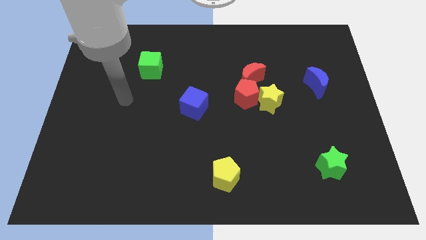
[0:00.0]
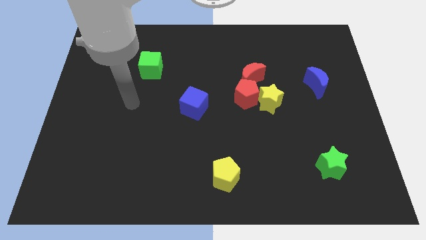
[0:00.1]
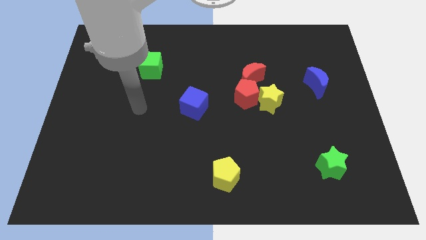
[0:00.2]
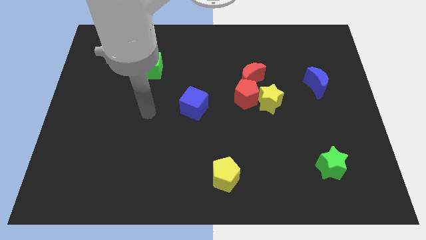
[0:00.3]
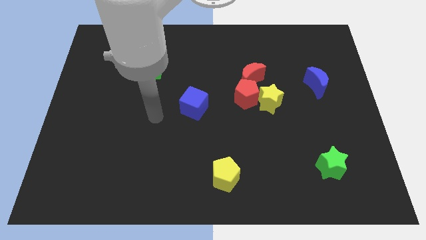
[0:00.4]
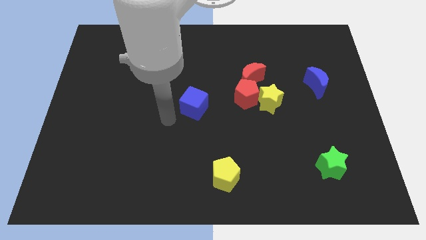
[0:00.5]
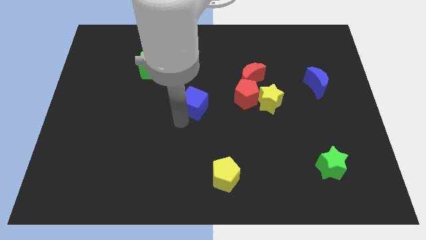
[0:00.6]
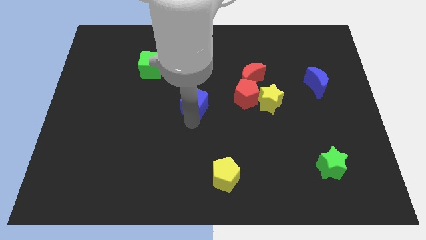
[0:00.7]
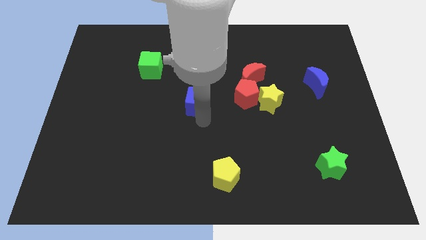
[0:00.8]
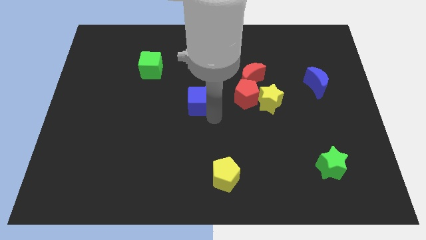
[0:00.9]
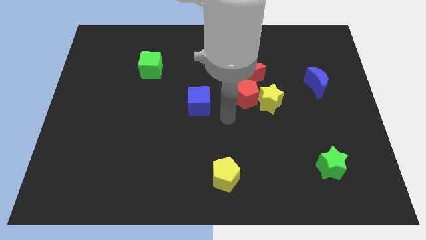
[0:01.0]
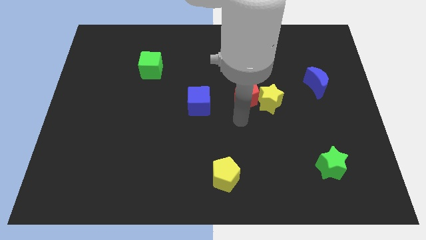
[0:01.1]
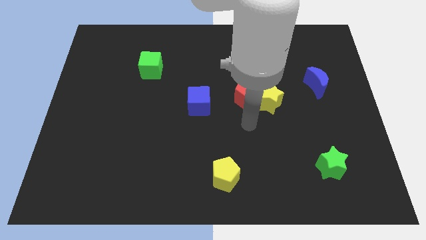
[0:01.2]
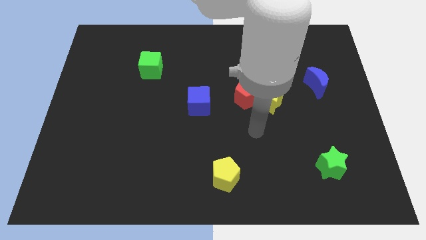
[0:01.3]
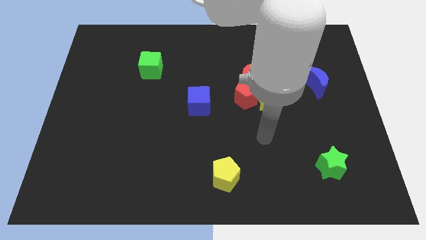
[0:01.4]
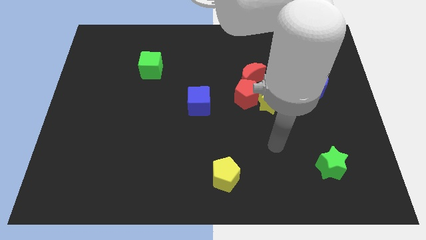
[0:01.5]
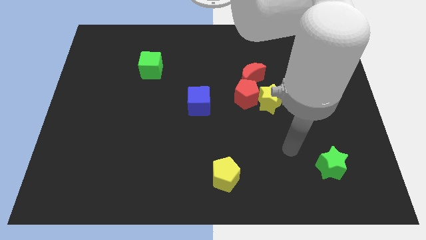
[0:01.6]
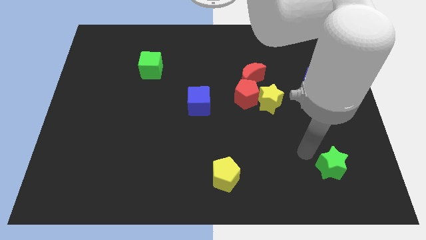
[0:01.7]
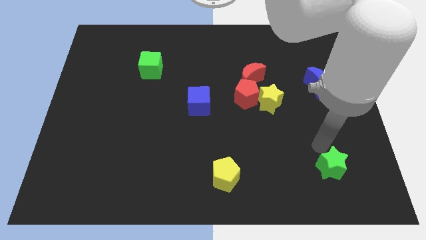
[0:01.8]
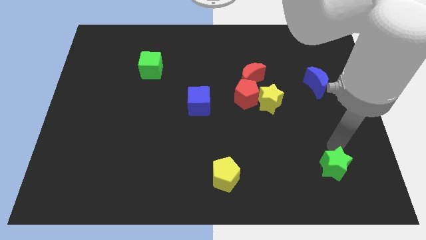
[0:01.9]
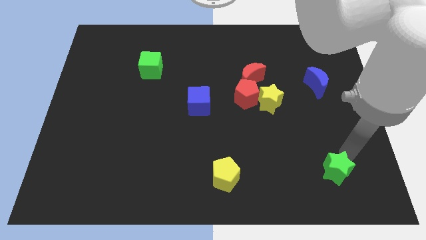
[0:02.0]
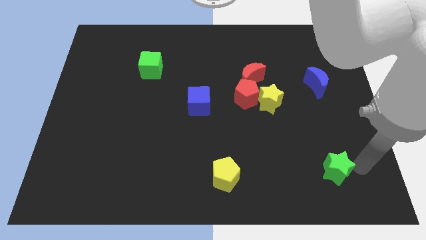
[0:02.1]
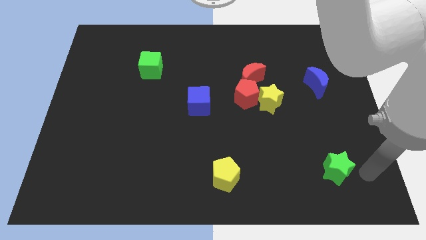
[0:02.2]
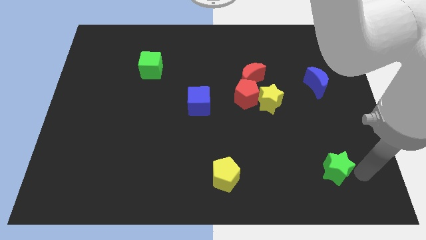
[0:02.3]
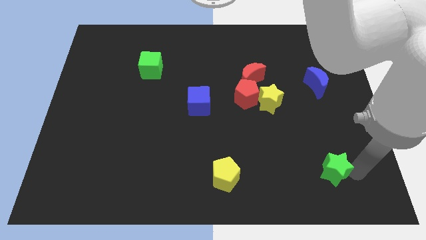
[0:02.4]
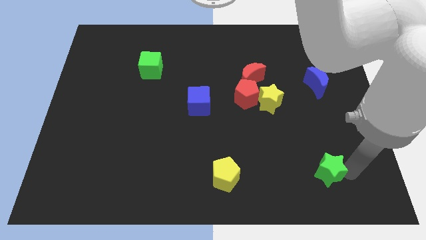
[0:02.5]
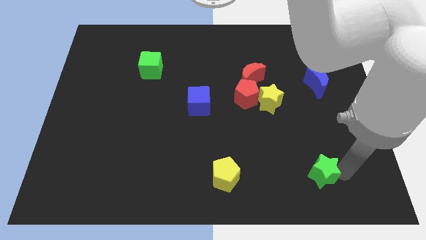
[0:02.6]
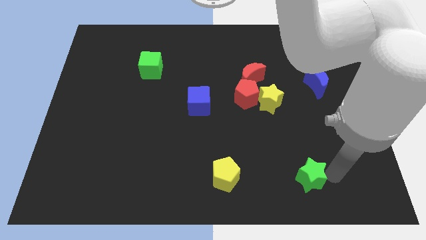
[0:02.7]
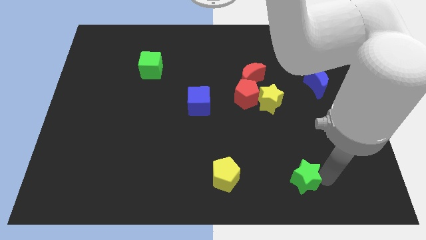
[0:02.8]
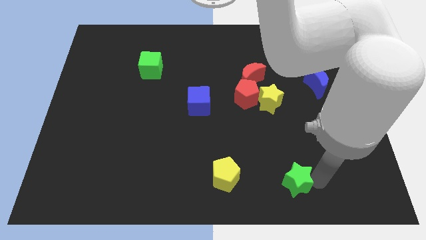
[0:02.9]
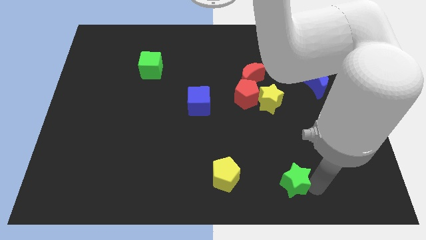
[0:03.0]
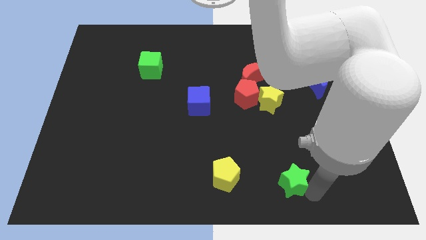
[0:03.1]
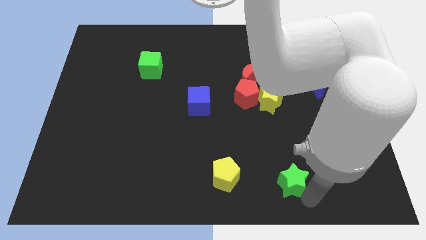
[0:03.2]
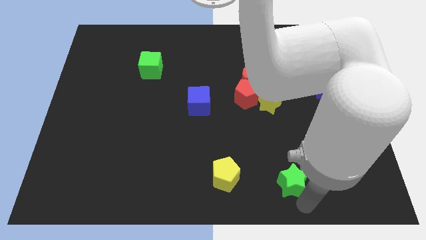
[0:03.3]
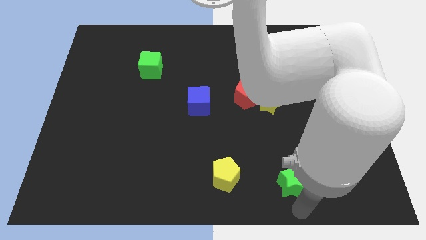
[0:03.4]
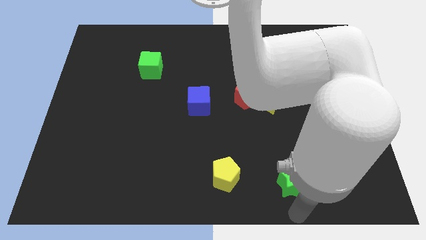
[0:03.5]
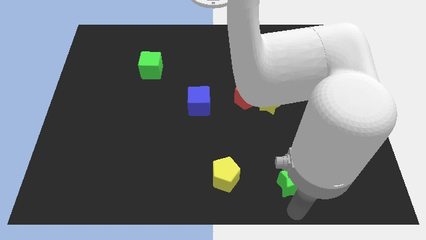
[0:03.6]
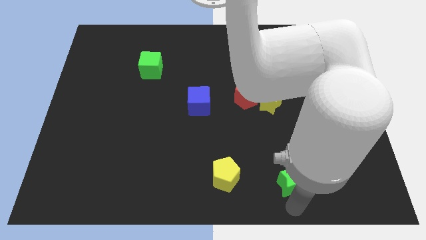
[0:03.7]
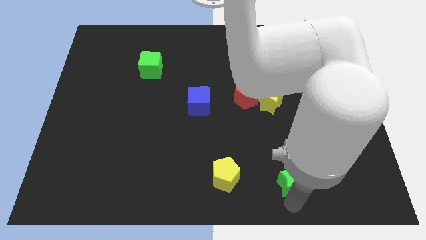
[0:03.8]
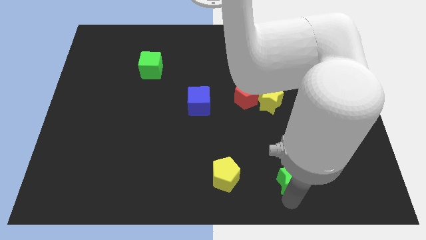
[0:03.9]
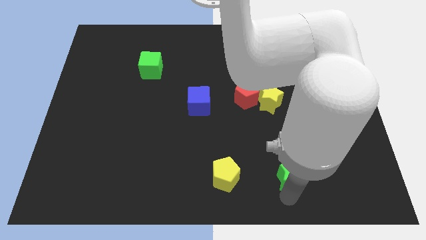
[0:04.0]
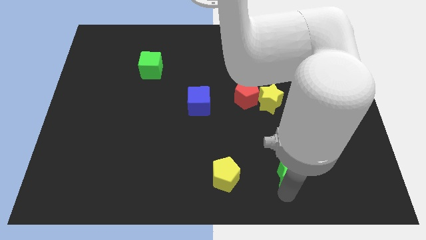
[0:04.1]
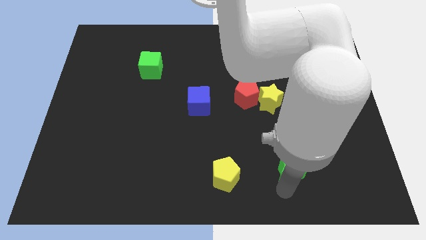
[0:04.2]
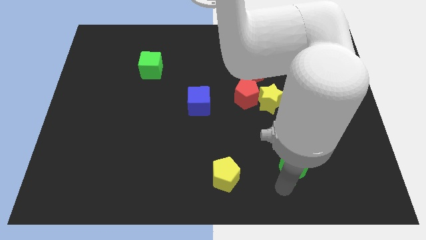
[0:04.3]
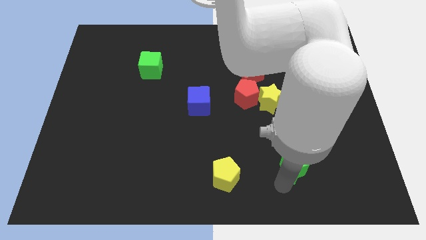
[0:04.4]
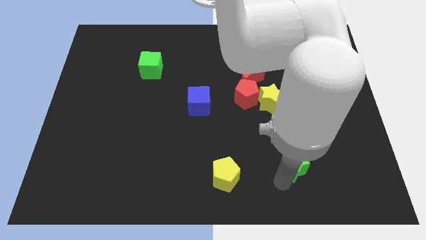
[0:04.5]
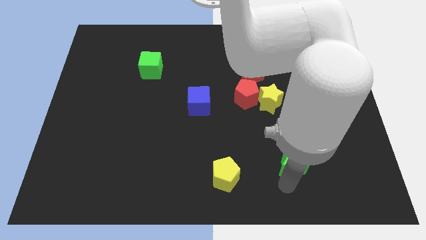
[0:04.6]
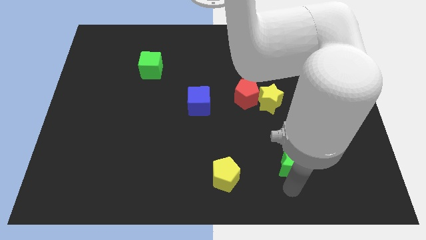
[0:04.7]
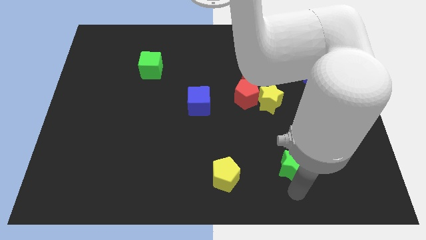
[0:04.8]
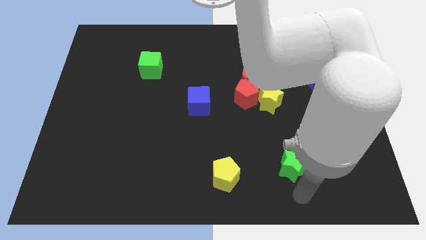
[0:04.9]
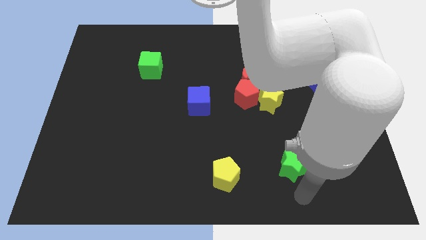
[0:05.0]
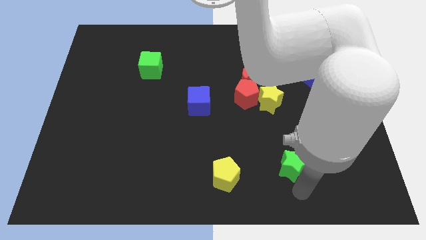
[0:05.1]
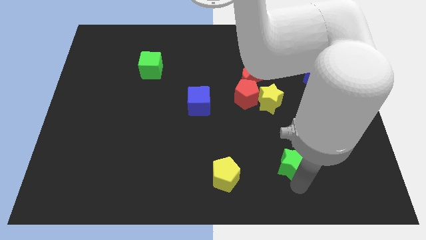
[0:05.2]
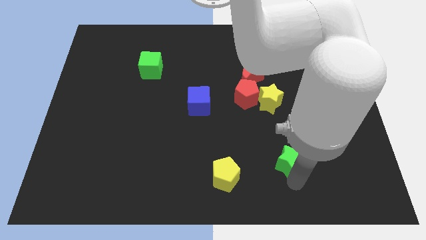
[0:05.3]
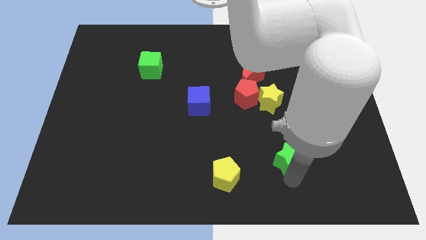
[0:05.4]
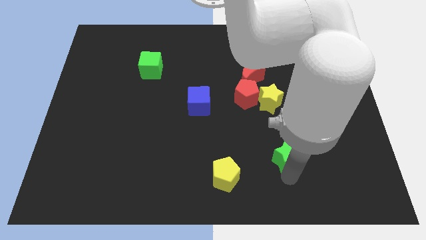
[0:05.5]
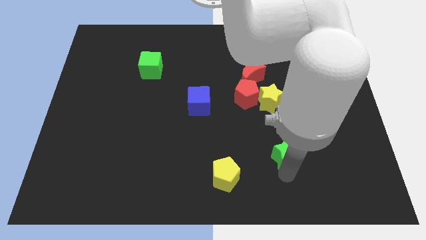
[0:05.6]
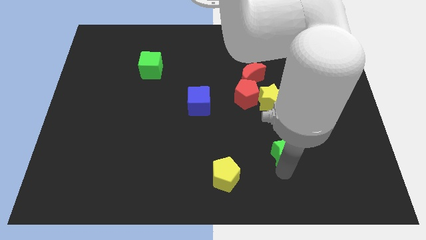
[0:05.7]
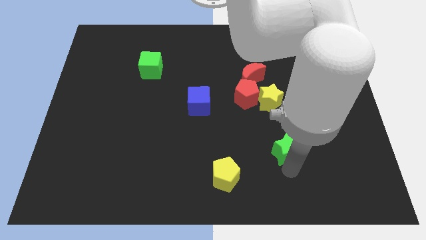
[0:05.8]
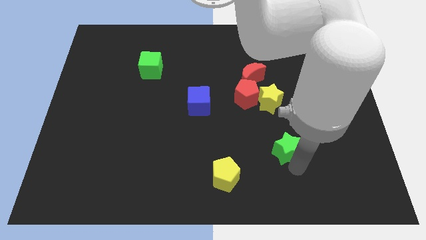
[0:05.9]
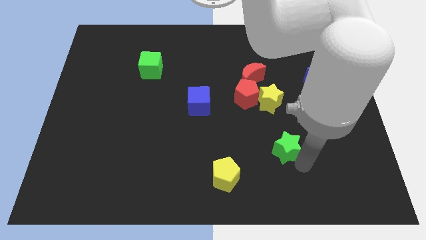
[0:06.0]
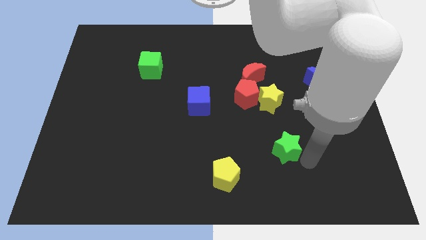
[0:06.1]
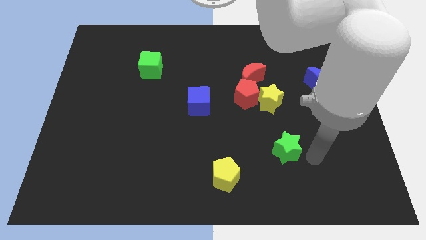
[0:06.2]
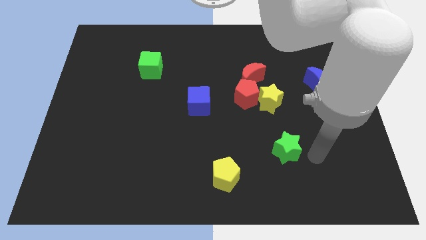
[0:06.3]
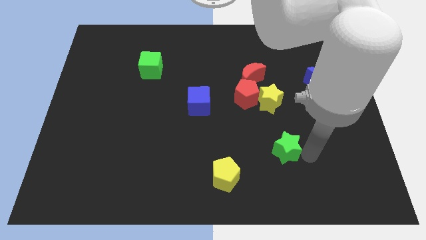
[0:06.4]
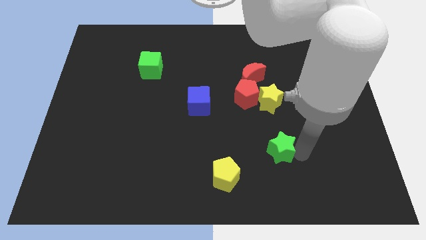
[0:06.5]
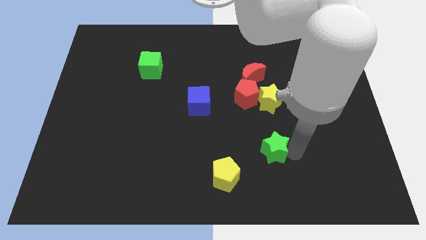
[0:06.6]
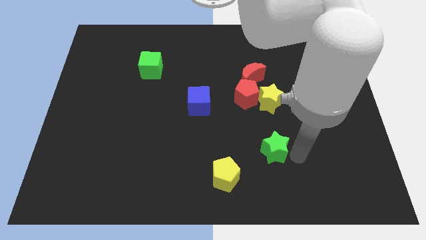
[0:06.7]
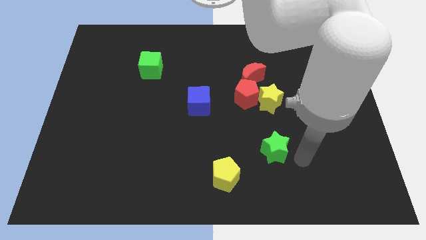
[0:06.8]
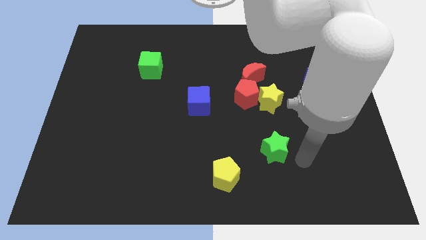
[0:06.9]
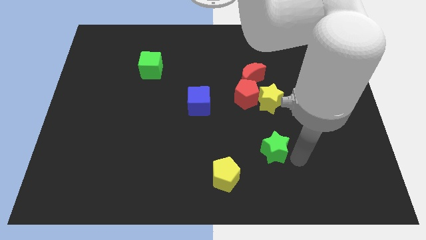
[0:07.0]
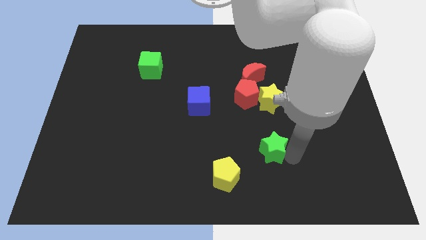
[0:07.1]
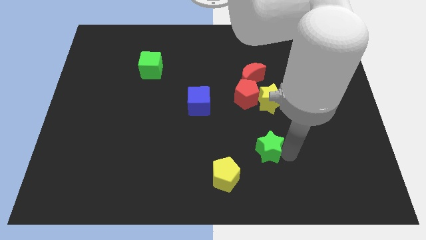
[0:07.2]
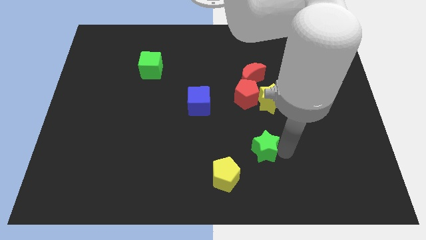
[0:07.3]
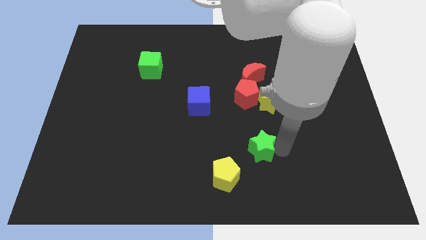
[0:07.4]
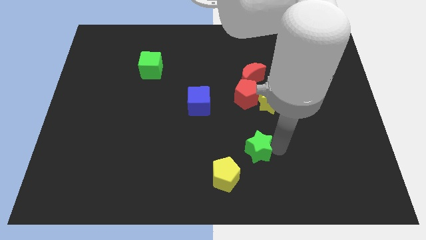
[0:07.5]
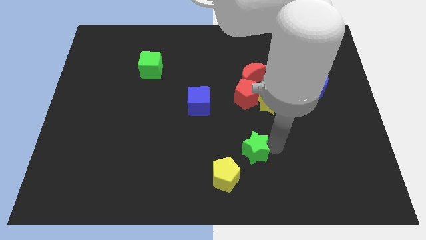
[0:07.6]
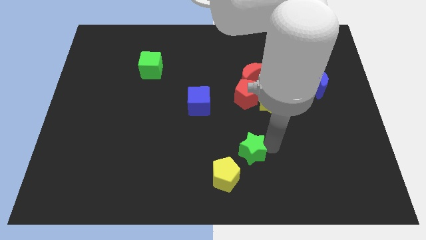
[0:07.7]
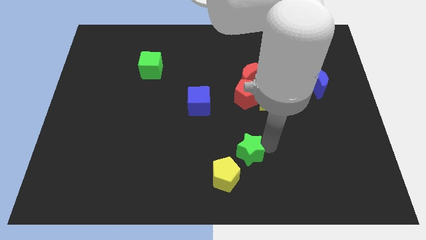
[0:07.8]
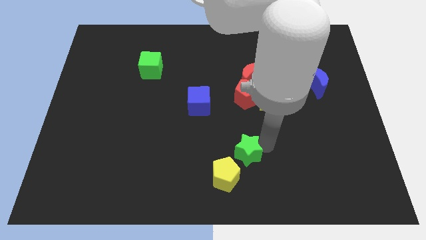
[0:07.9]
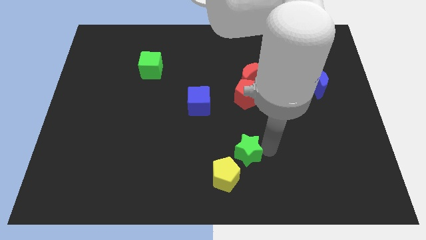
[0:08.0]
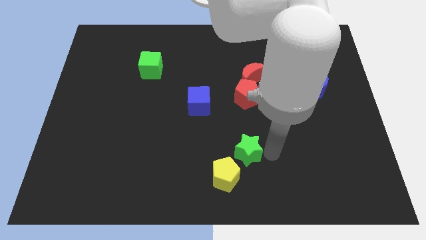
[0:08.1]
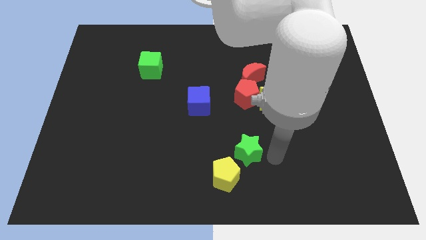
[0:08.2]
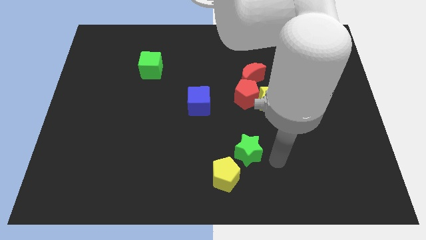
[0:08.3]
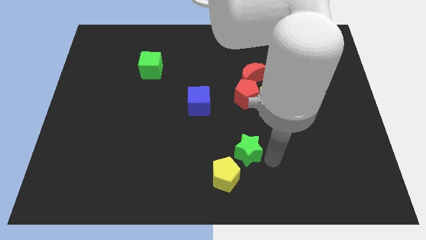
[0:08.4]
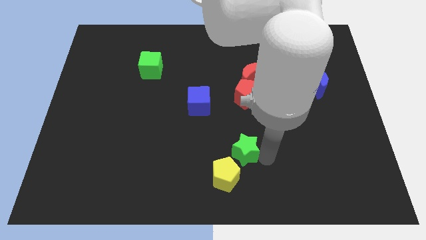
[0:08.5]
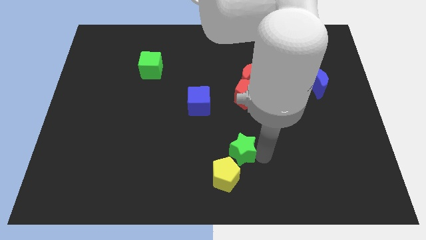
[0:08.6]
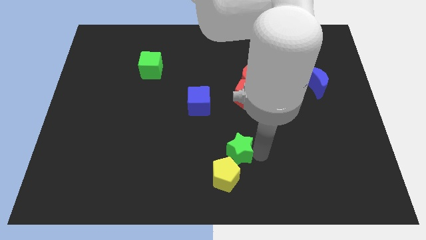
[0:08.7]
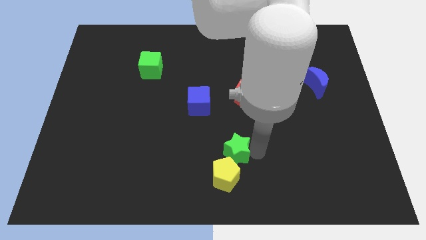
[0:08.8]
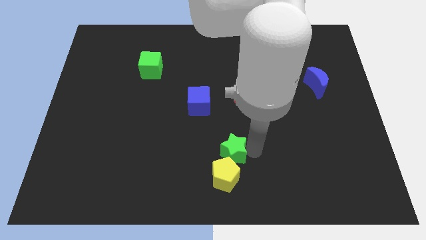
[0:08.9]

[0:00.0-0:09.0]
push the green star to the left
